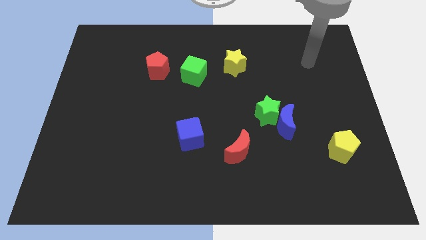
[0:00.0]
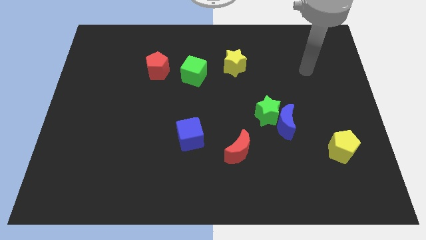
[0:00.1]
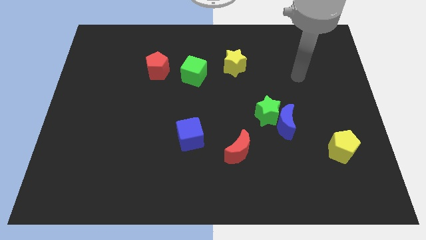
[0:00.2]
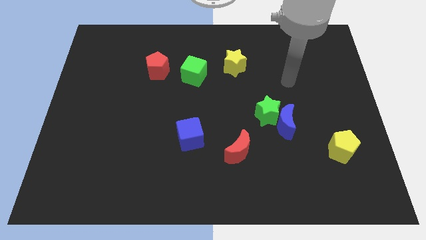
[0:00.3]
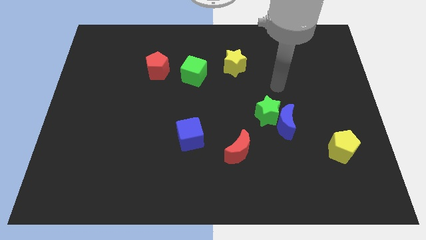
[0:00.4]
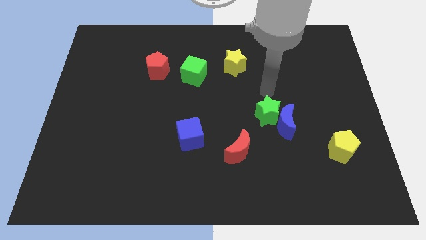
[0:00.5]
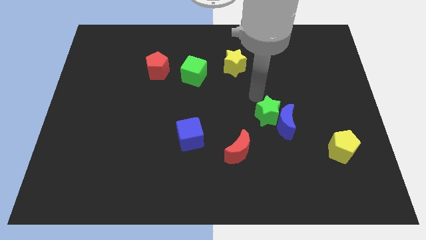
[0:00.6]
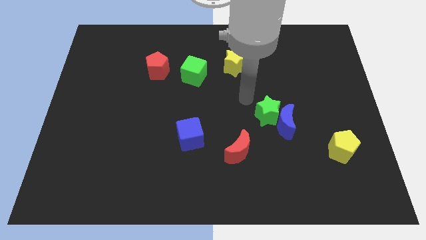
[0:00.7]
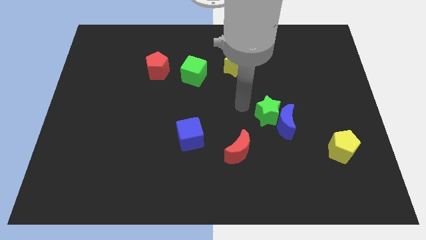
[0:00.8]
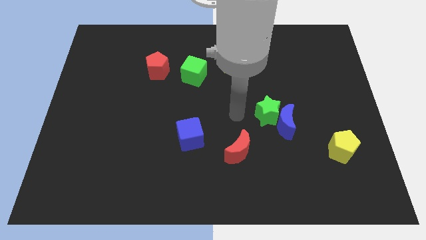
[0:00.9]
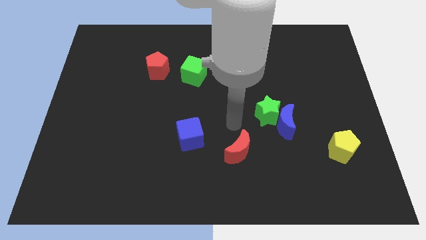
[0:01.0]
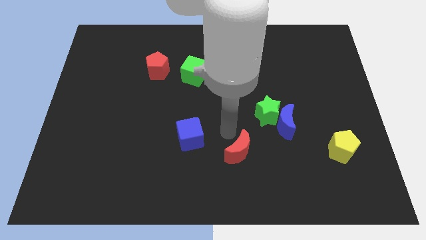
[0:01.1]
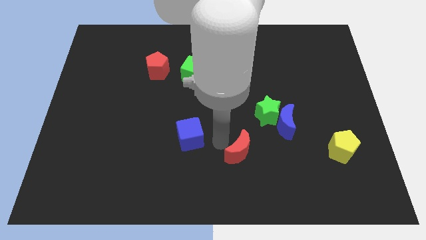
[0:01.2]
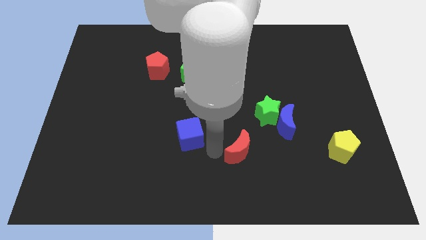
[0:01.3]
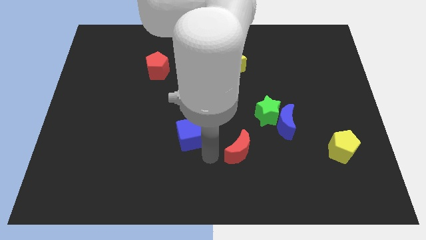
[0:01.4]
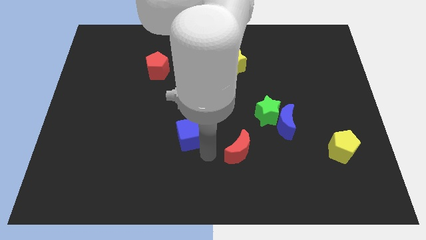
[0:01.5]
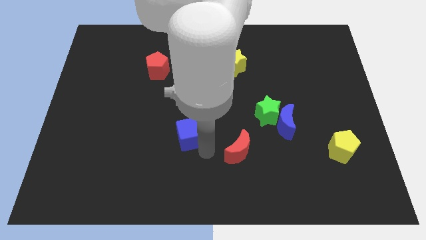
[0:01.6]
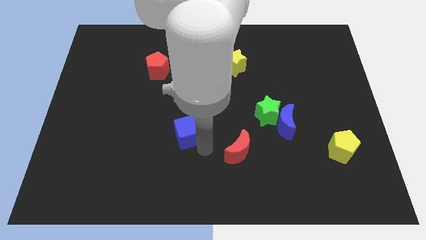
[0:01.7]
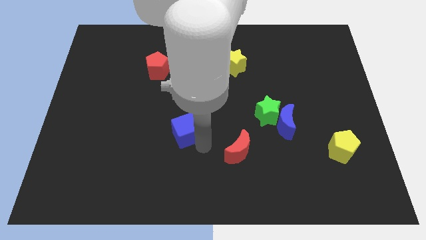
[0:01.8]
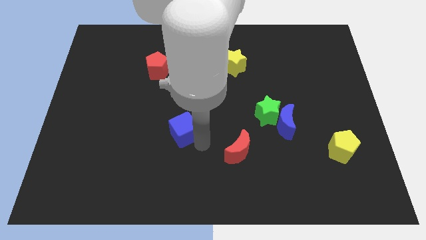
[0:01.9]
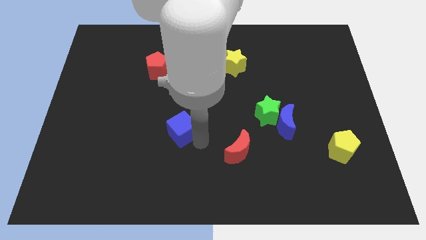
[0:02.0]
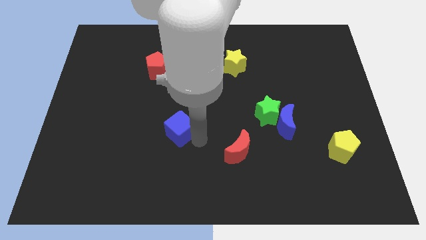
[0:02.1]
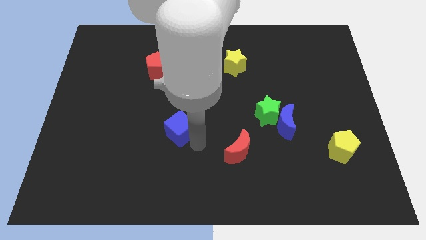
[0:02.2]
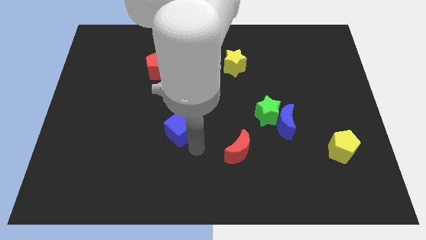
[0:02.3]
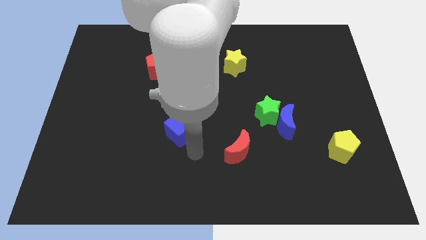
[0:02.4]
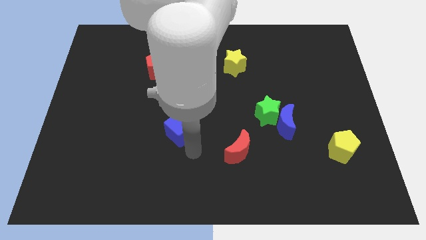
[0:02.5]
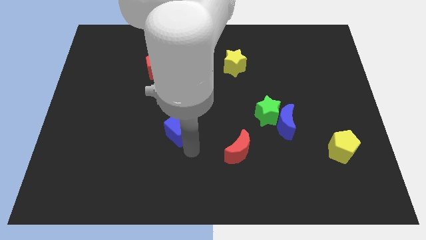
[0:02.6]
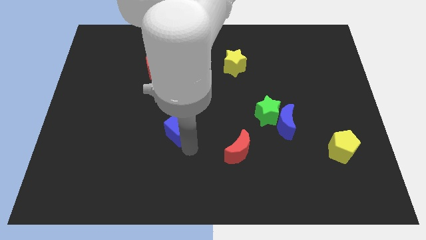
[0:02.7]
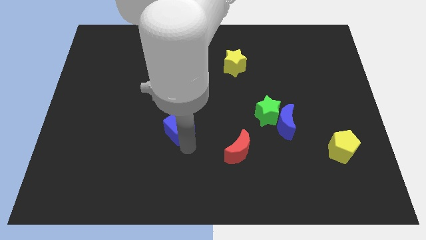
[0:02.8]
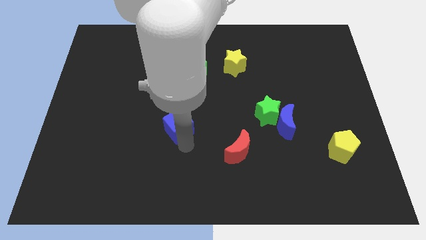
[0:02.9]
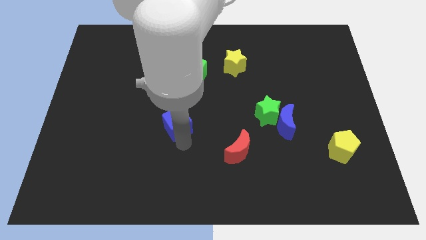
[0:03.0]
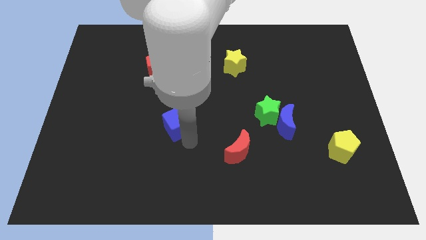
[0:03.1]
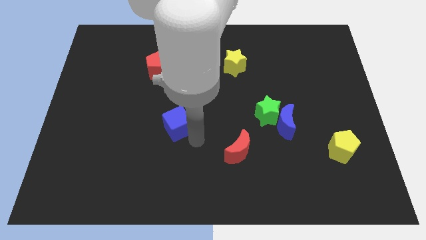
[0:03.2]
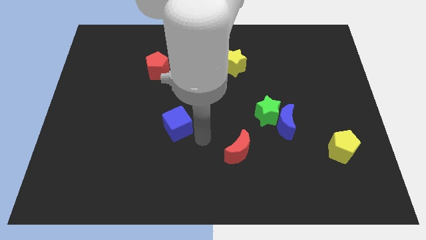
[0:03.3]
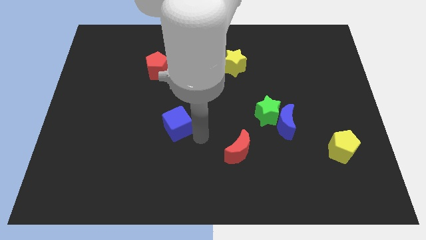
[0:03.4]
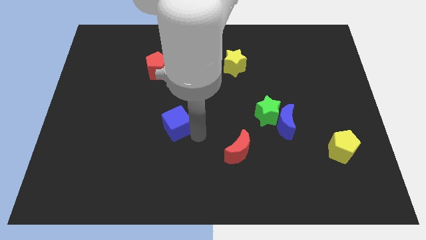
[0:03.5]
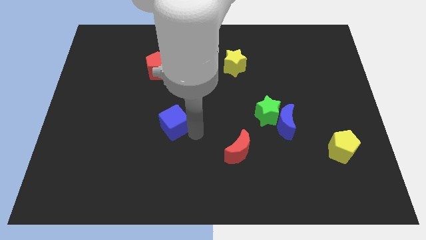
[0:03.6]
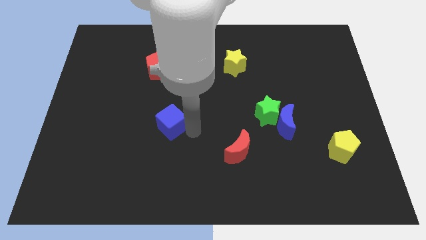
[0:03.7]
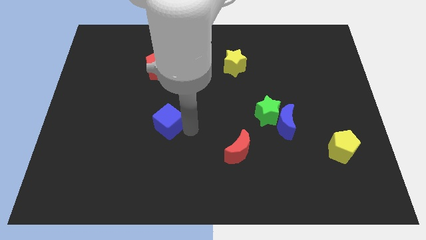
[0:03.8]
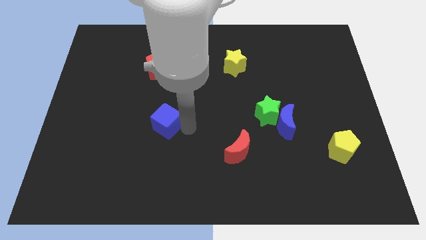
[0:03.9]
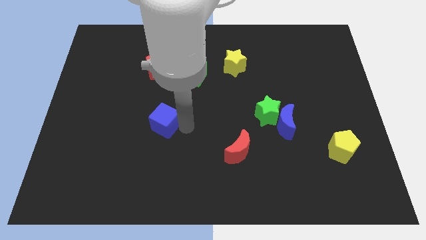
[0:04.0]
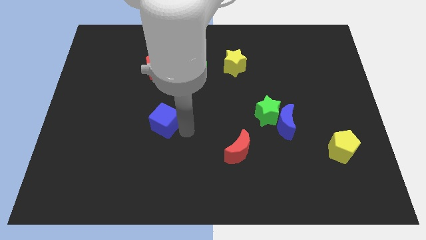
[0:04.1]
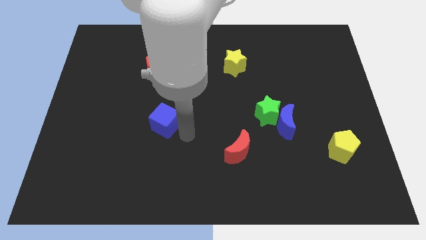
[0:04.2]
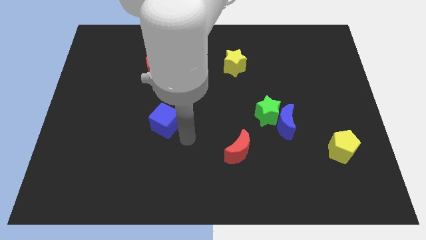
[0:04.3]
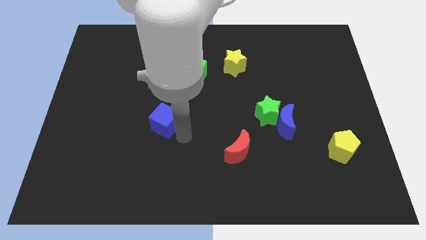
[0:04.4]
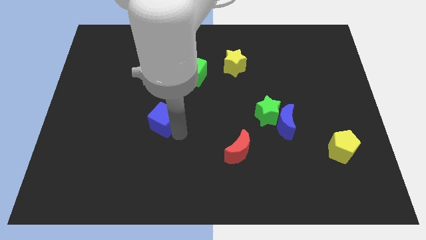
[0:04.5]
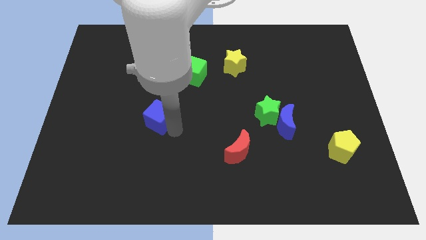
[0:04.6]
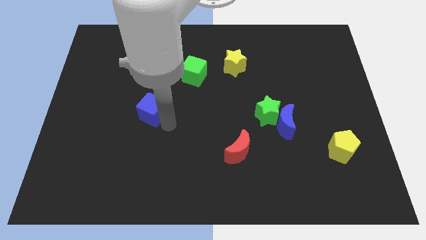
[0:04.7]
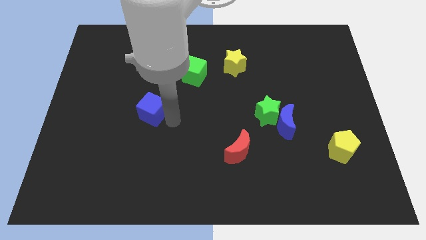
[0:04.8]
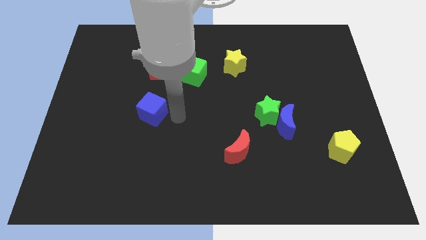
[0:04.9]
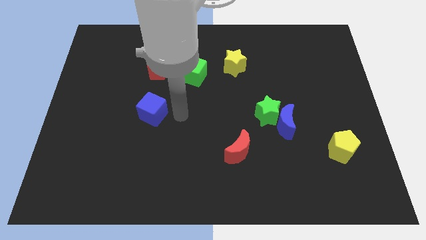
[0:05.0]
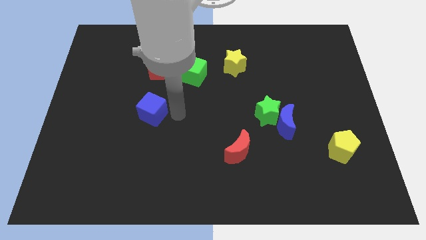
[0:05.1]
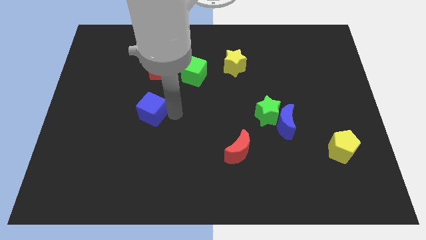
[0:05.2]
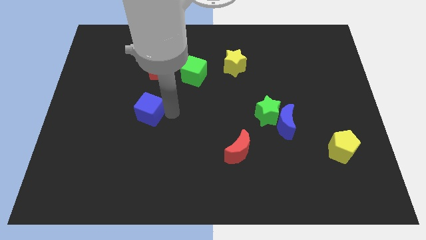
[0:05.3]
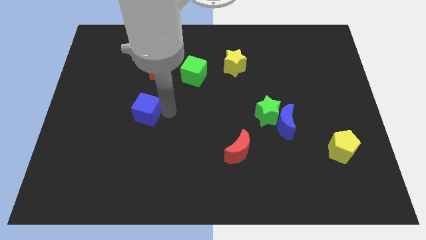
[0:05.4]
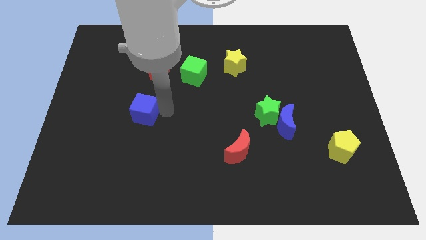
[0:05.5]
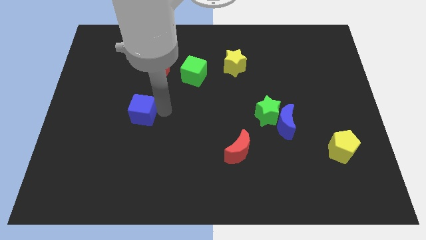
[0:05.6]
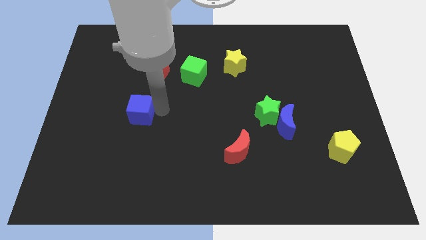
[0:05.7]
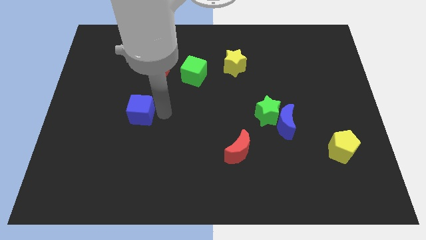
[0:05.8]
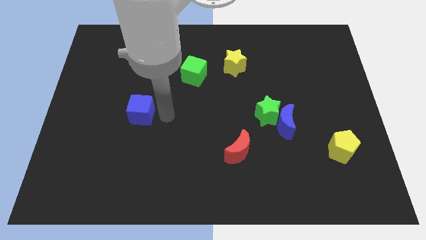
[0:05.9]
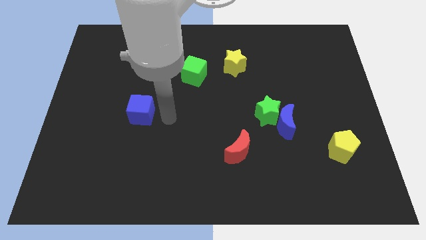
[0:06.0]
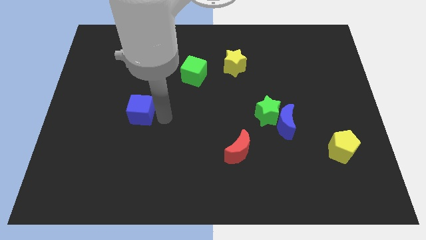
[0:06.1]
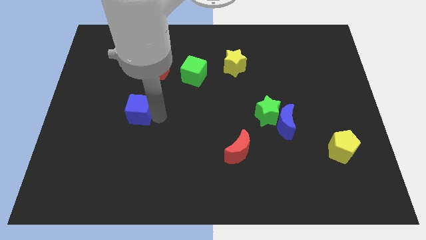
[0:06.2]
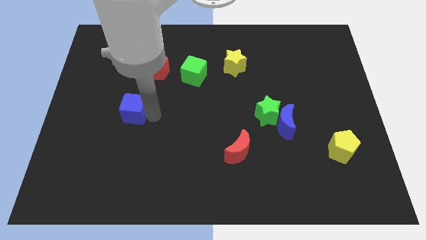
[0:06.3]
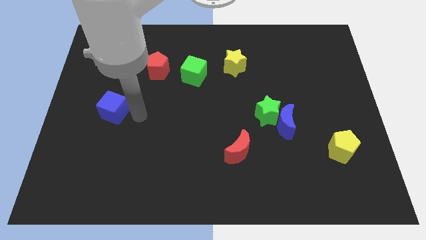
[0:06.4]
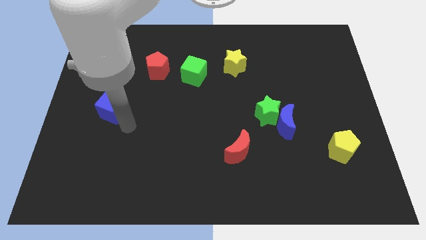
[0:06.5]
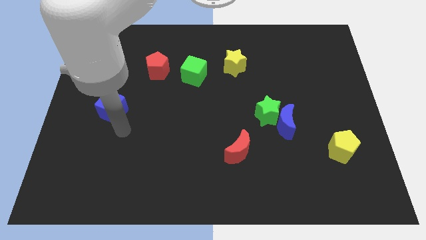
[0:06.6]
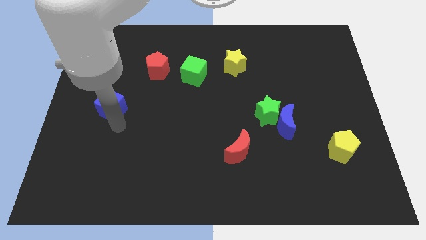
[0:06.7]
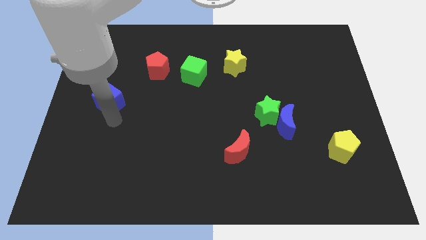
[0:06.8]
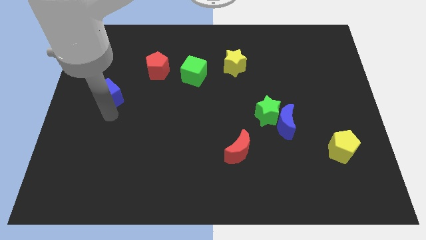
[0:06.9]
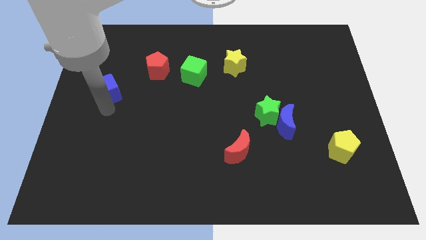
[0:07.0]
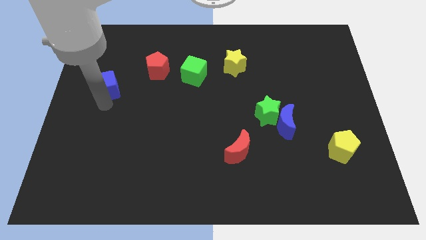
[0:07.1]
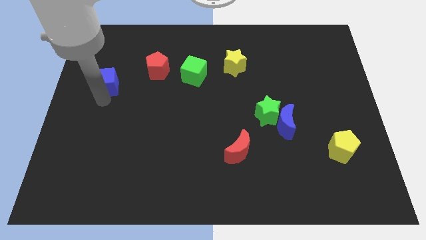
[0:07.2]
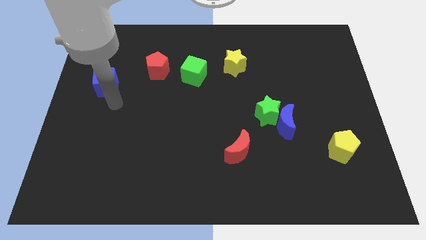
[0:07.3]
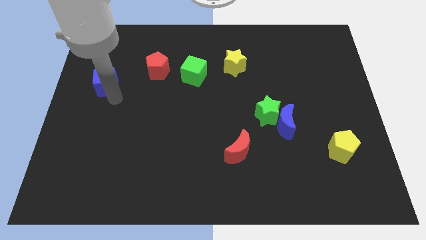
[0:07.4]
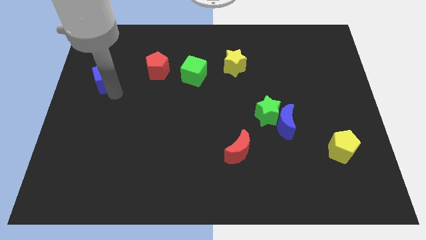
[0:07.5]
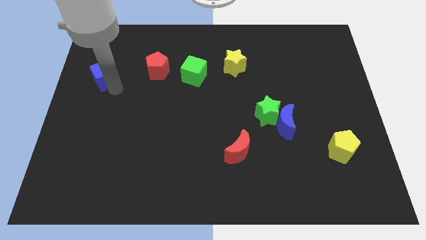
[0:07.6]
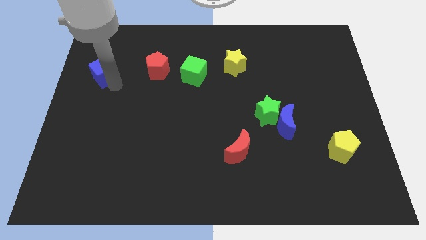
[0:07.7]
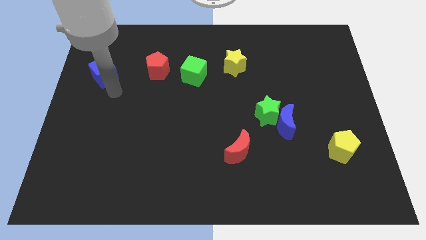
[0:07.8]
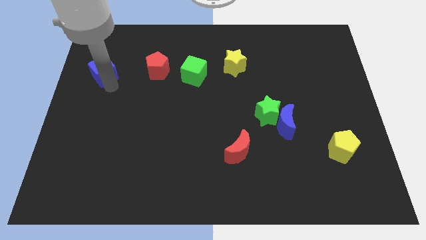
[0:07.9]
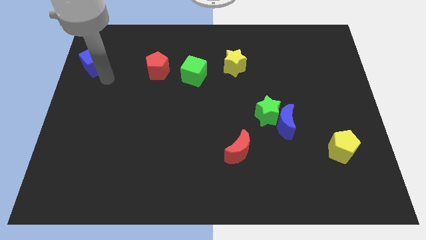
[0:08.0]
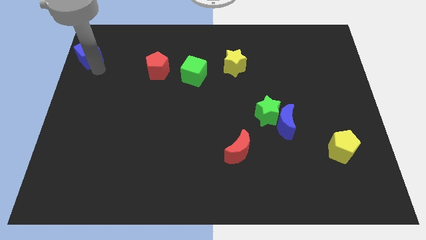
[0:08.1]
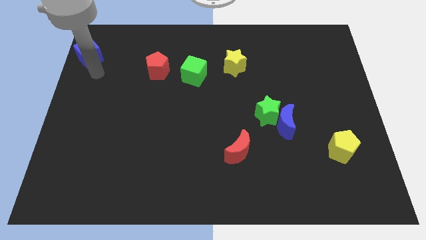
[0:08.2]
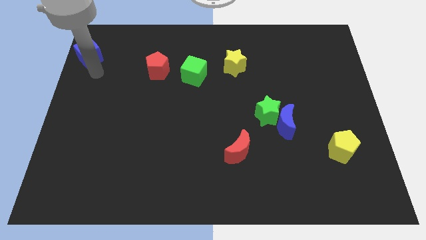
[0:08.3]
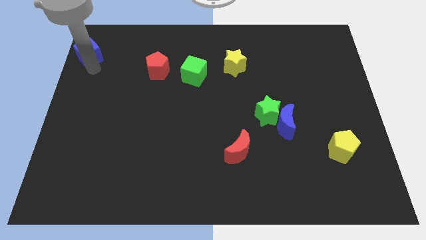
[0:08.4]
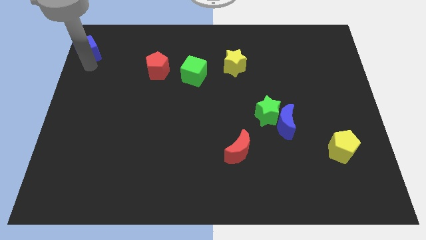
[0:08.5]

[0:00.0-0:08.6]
move the blue cube to the upper left corner
